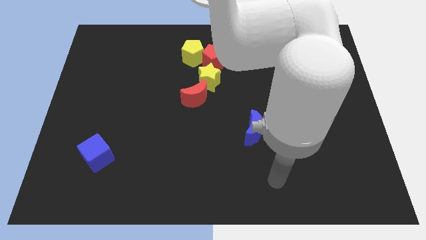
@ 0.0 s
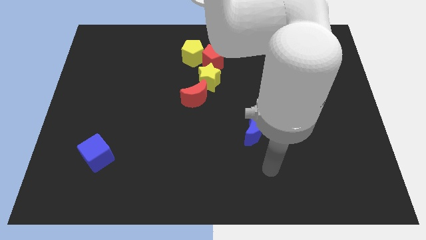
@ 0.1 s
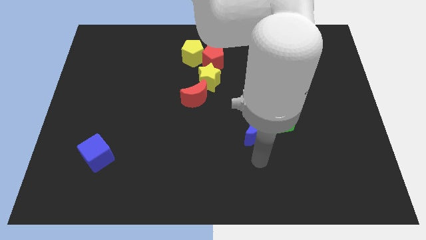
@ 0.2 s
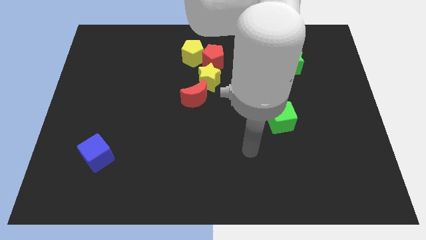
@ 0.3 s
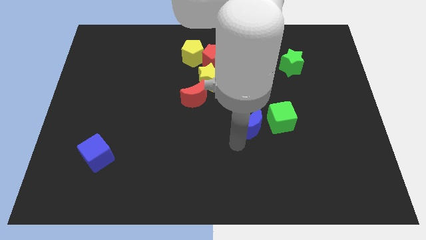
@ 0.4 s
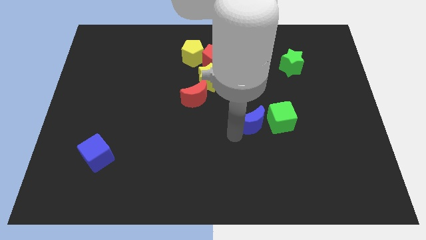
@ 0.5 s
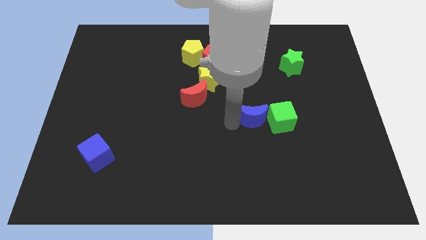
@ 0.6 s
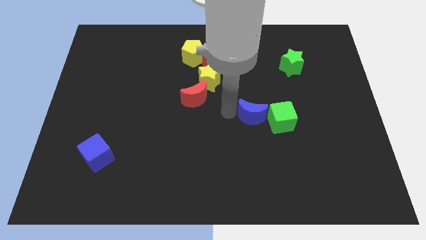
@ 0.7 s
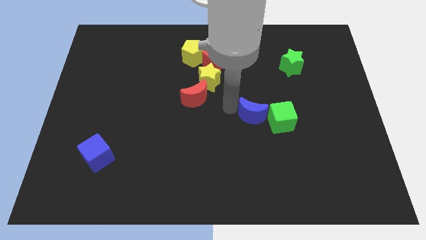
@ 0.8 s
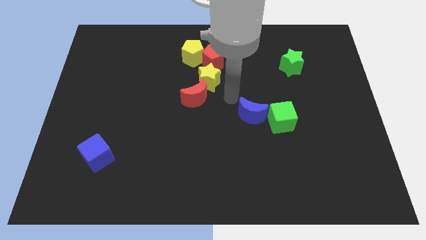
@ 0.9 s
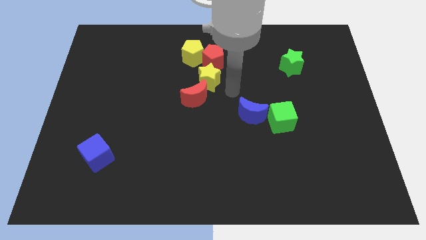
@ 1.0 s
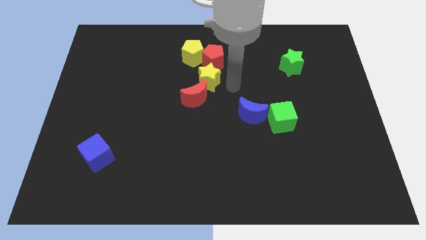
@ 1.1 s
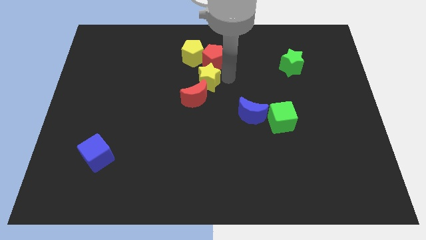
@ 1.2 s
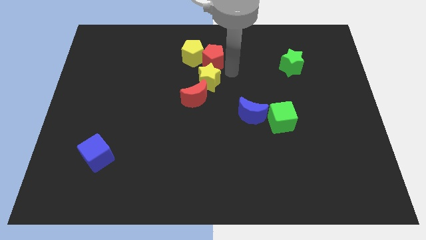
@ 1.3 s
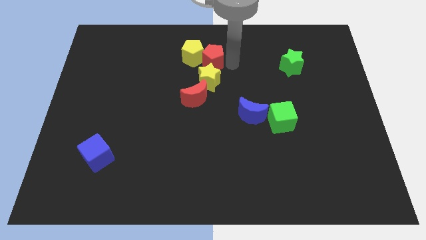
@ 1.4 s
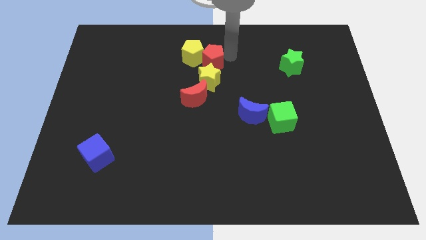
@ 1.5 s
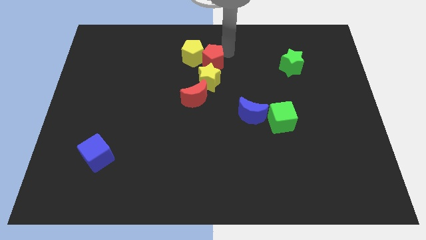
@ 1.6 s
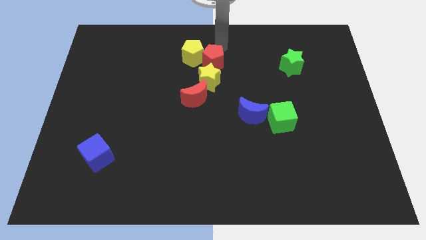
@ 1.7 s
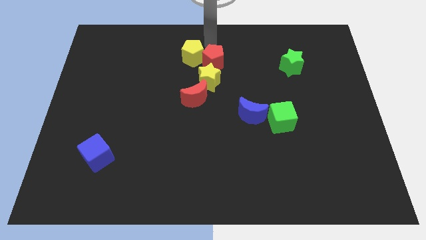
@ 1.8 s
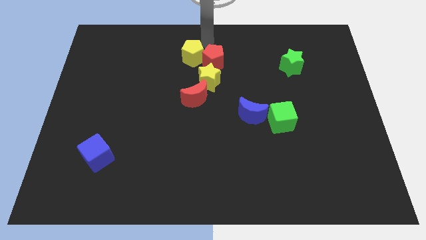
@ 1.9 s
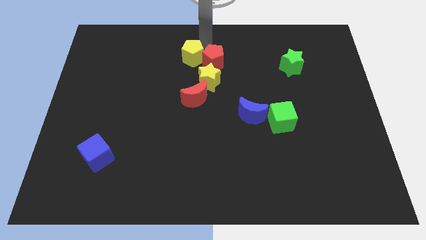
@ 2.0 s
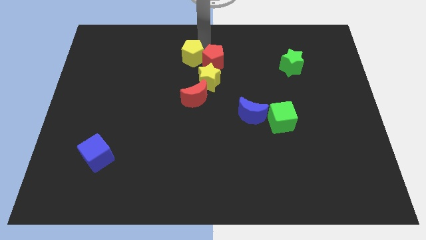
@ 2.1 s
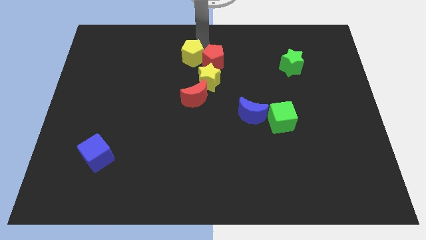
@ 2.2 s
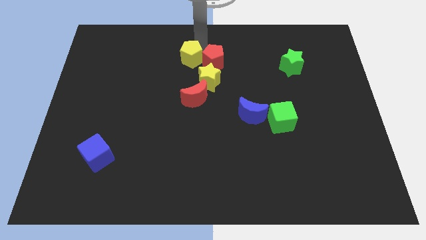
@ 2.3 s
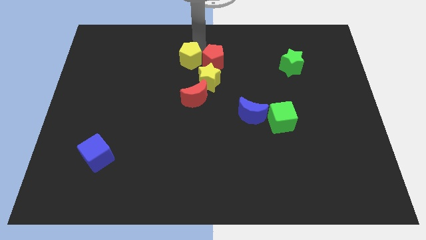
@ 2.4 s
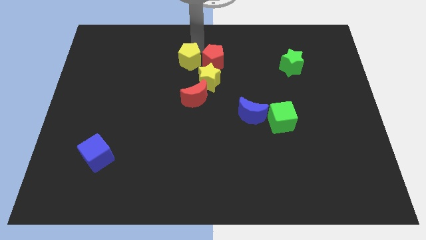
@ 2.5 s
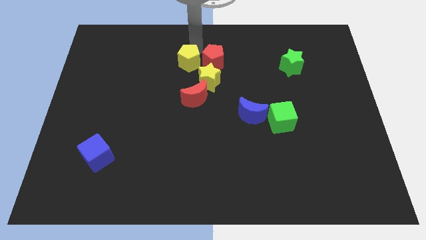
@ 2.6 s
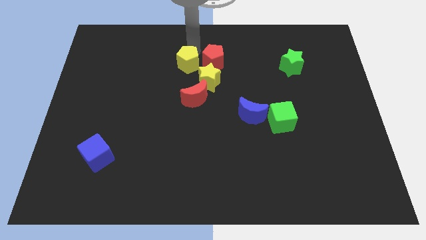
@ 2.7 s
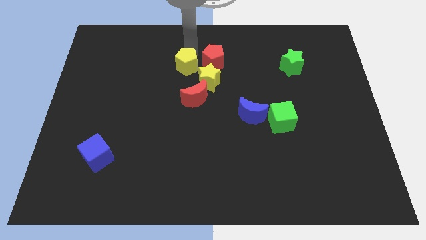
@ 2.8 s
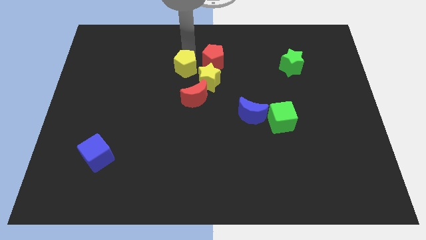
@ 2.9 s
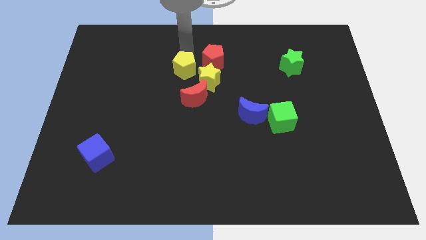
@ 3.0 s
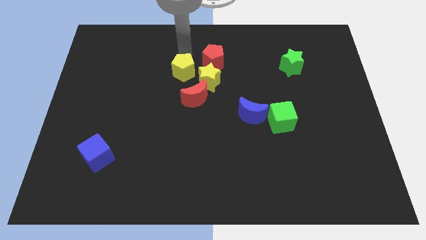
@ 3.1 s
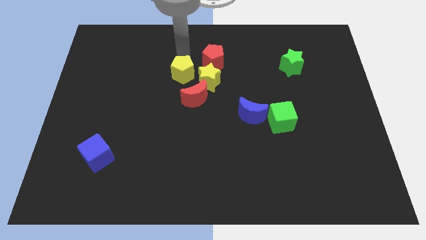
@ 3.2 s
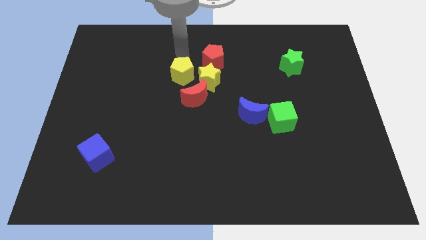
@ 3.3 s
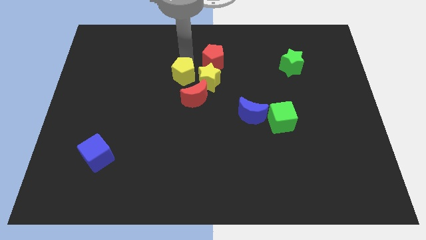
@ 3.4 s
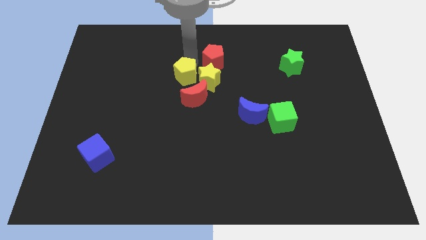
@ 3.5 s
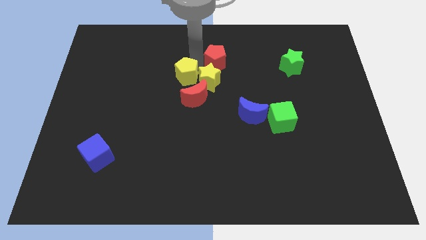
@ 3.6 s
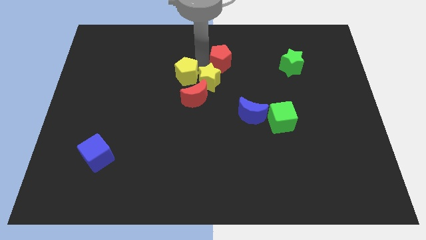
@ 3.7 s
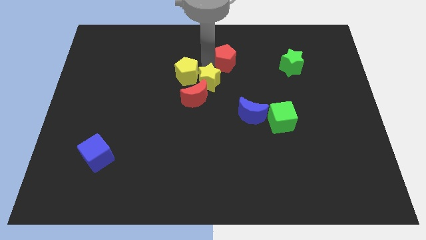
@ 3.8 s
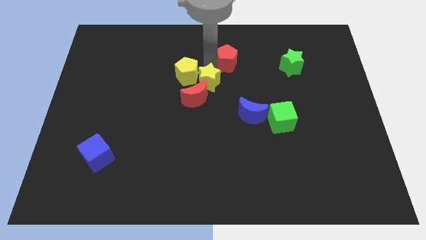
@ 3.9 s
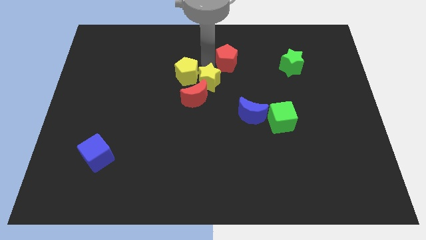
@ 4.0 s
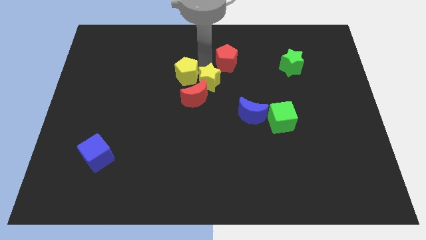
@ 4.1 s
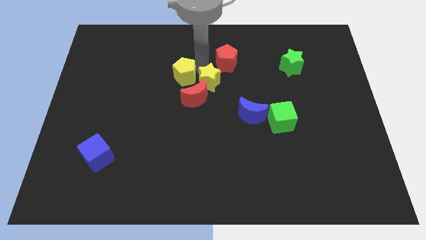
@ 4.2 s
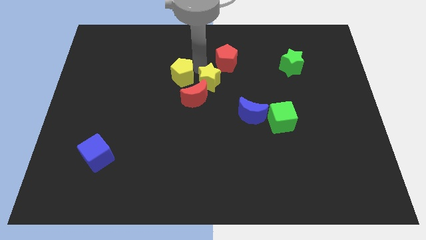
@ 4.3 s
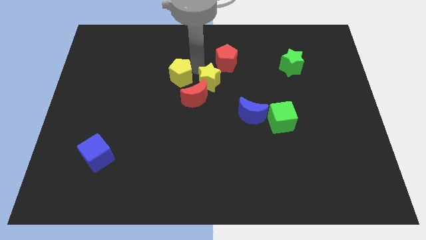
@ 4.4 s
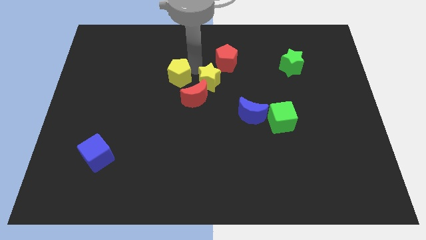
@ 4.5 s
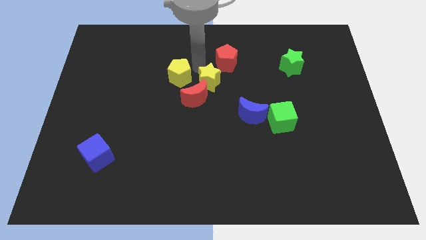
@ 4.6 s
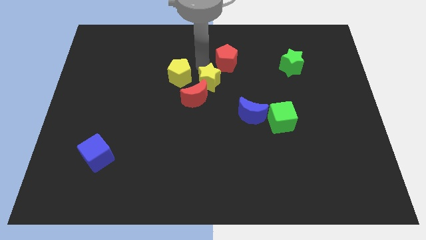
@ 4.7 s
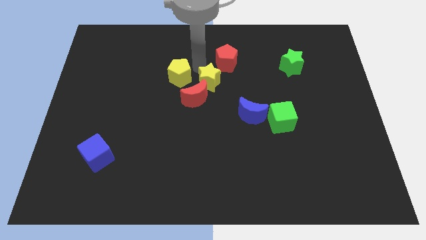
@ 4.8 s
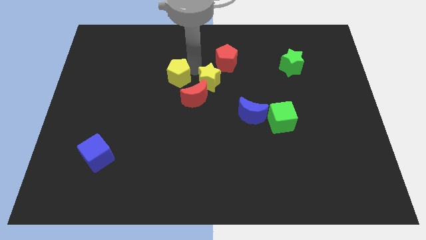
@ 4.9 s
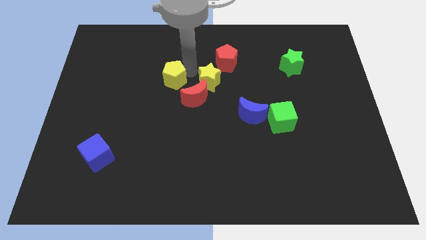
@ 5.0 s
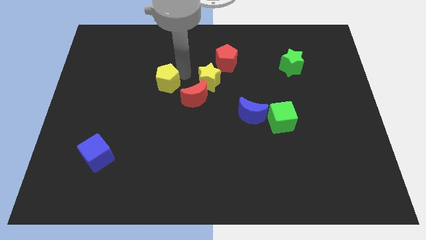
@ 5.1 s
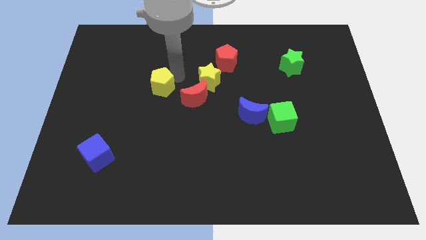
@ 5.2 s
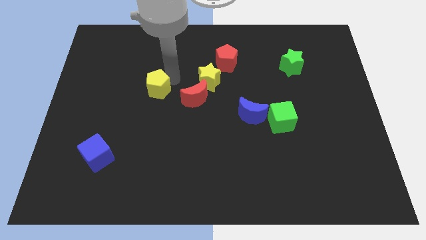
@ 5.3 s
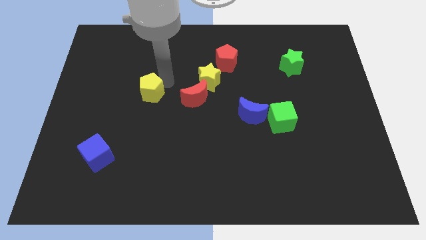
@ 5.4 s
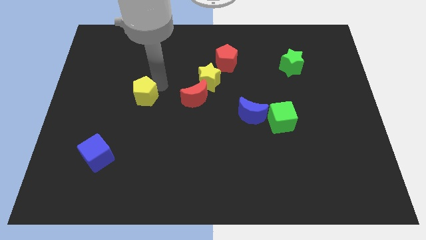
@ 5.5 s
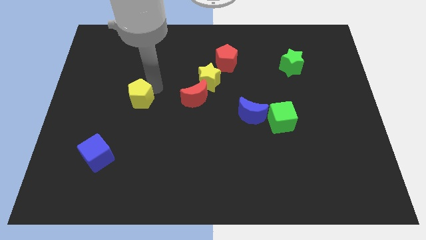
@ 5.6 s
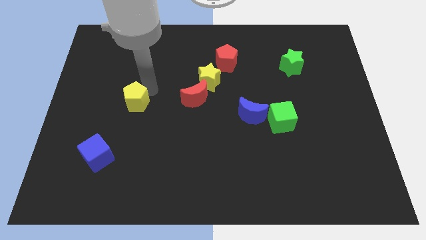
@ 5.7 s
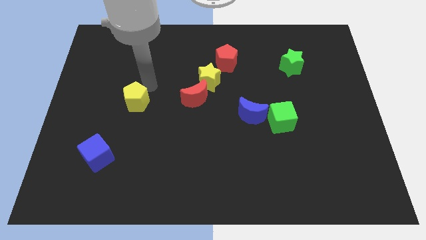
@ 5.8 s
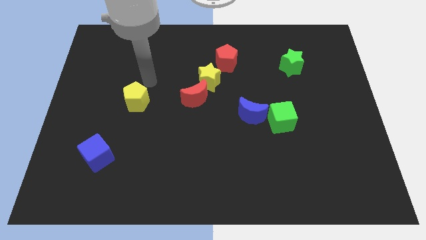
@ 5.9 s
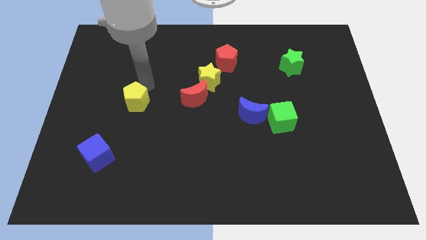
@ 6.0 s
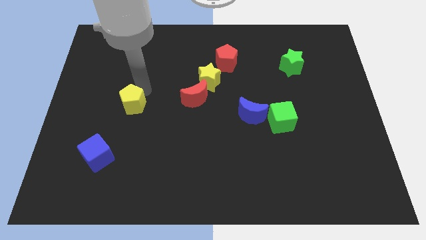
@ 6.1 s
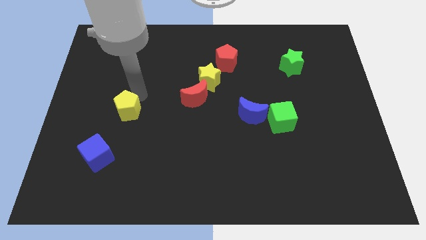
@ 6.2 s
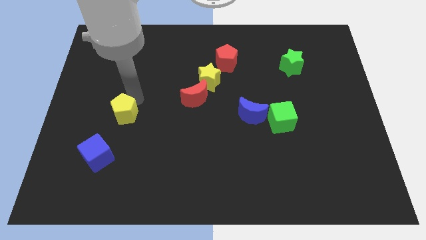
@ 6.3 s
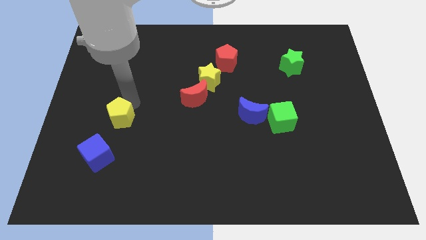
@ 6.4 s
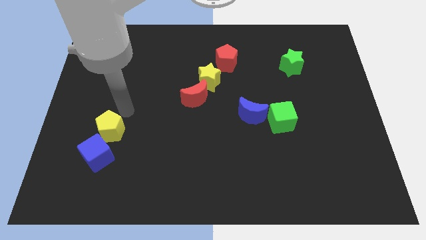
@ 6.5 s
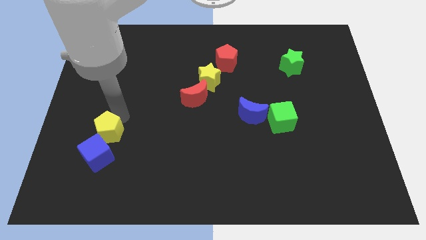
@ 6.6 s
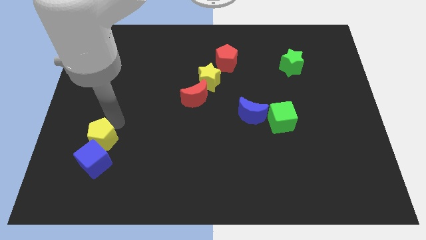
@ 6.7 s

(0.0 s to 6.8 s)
slide the yellow pentagon towards the blue cube

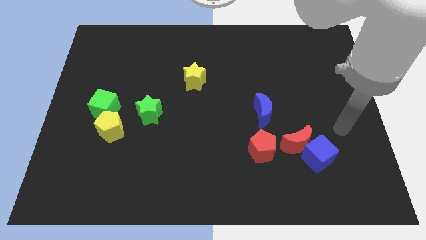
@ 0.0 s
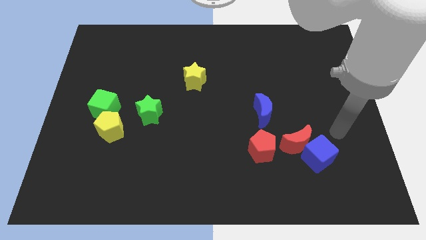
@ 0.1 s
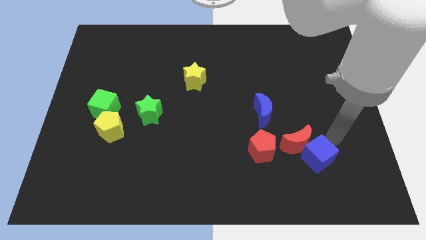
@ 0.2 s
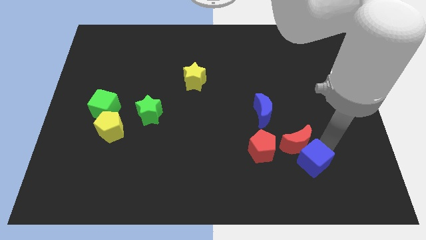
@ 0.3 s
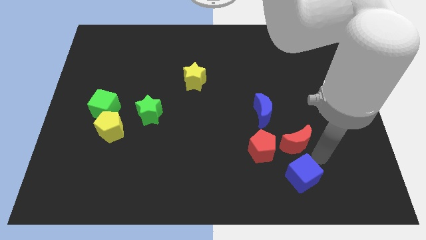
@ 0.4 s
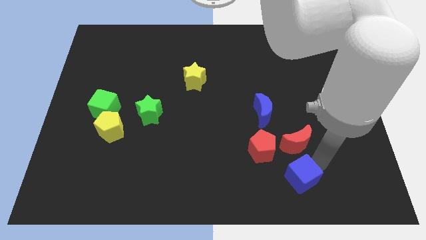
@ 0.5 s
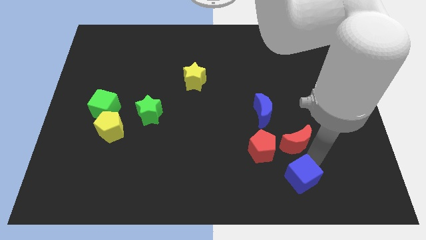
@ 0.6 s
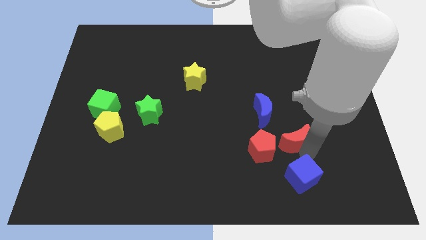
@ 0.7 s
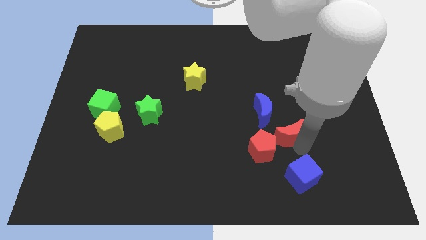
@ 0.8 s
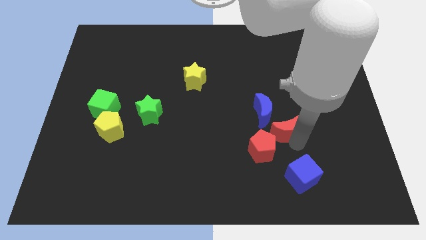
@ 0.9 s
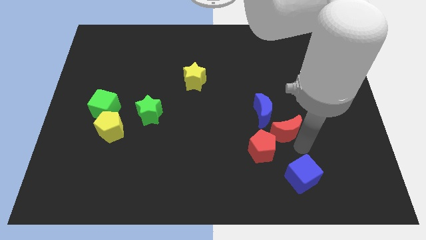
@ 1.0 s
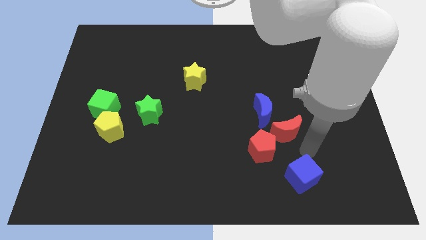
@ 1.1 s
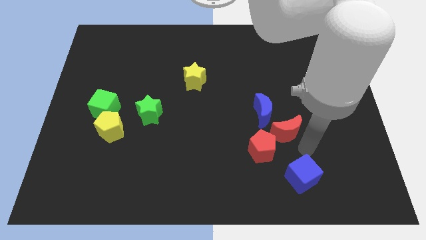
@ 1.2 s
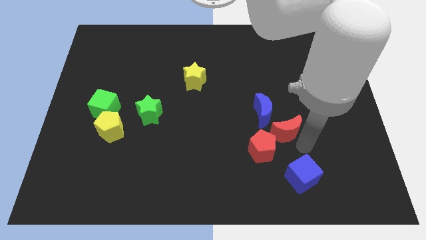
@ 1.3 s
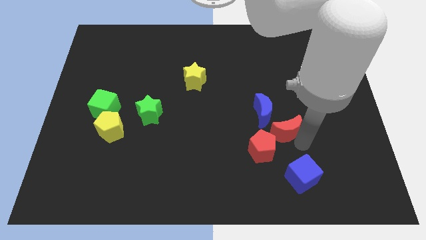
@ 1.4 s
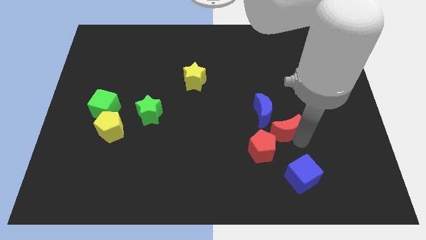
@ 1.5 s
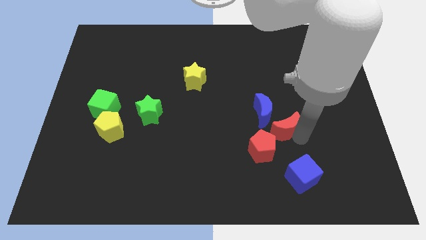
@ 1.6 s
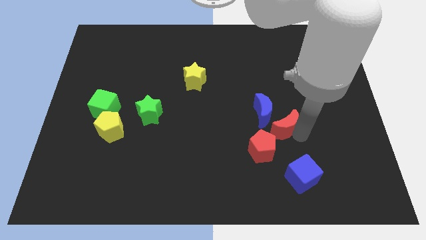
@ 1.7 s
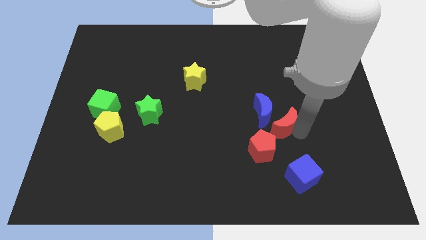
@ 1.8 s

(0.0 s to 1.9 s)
push the red moon to the blue moon
